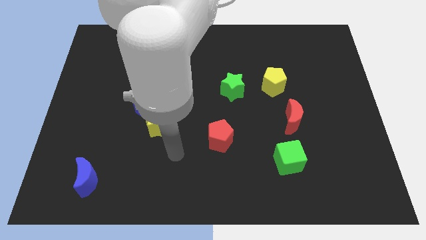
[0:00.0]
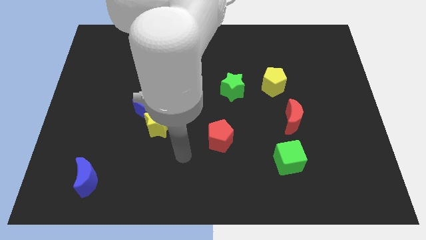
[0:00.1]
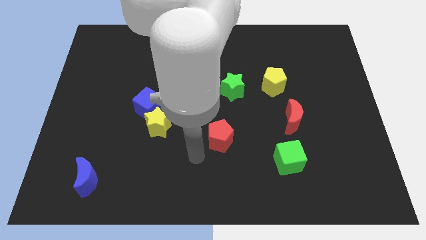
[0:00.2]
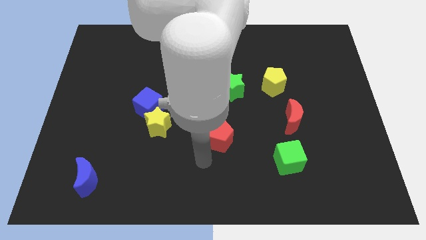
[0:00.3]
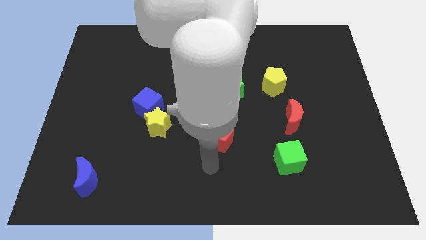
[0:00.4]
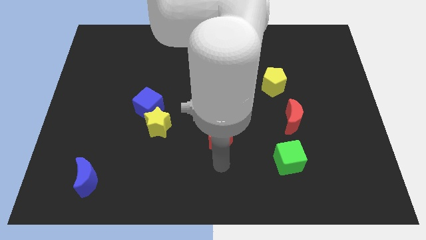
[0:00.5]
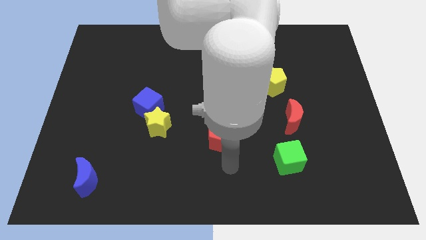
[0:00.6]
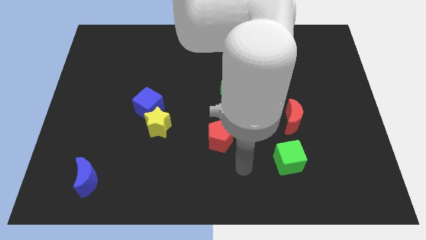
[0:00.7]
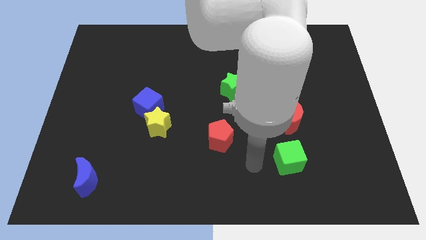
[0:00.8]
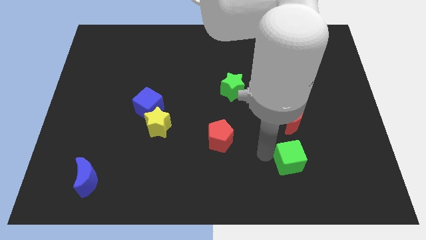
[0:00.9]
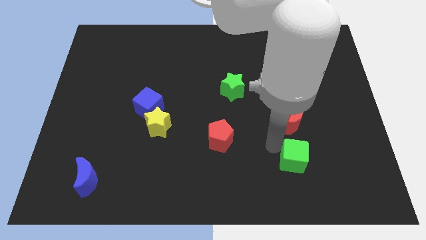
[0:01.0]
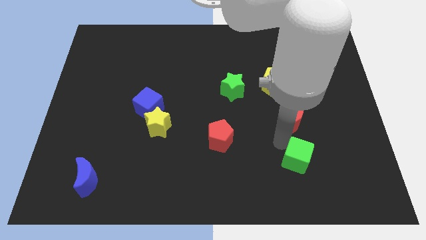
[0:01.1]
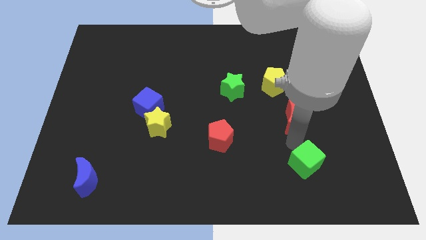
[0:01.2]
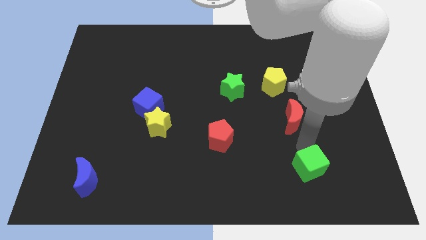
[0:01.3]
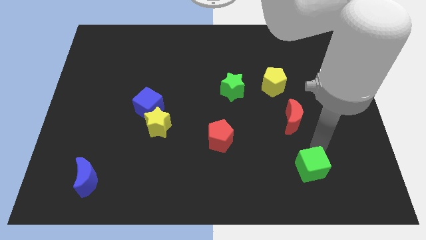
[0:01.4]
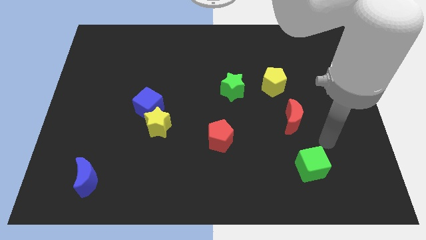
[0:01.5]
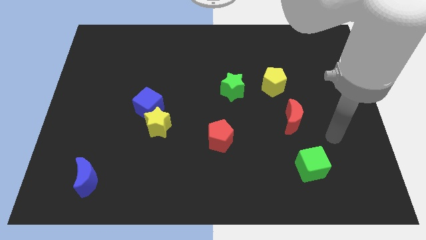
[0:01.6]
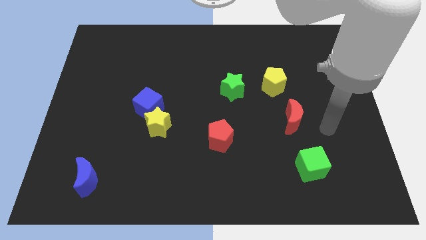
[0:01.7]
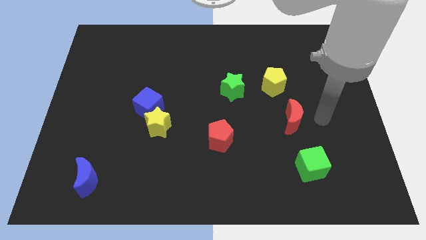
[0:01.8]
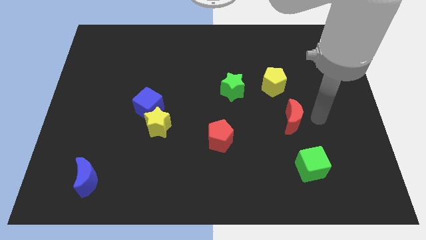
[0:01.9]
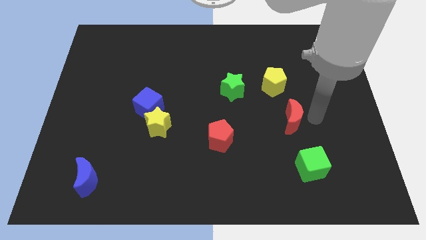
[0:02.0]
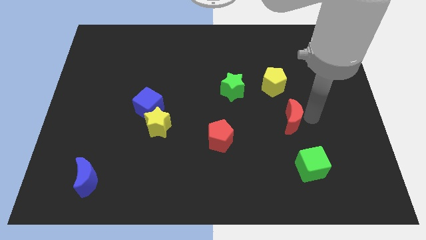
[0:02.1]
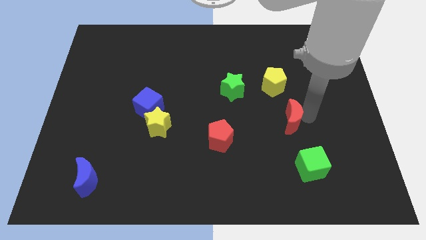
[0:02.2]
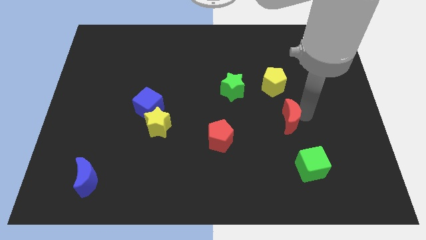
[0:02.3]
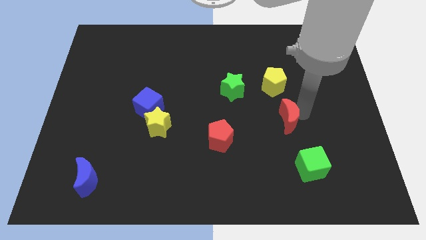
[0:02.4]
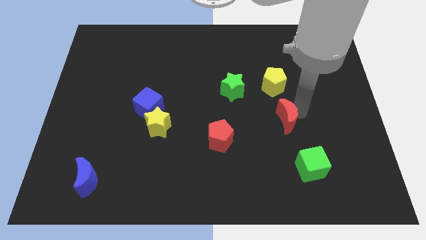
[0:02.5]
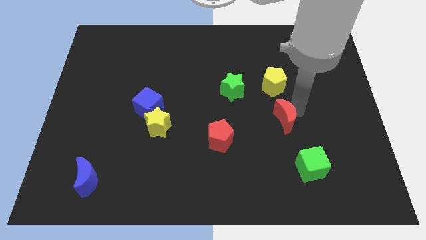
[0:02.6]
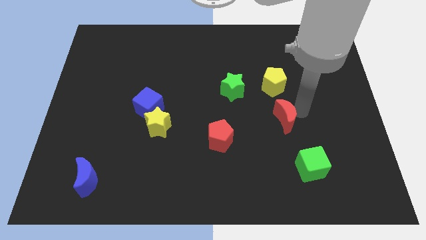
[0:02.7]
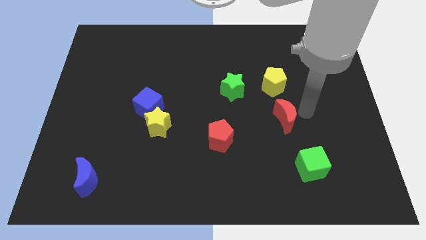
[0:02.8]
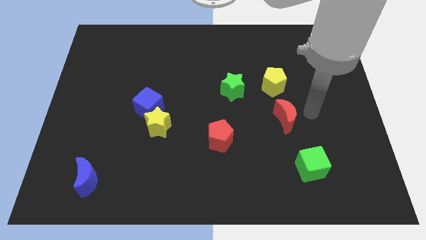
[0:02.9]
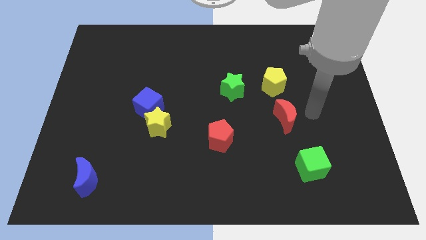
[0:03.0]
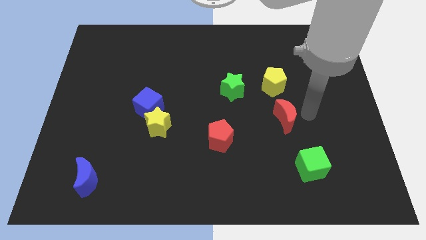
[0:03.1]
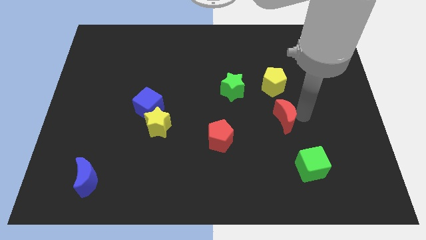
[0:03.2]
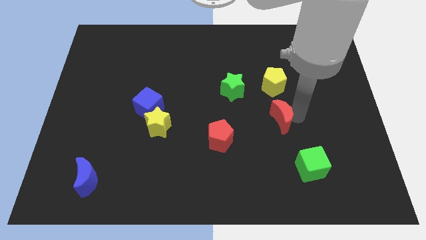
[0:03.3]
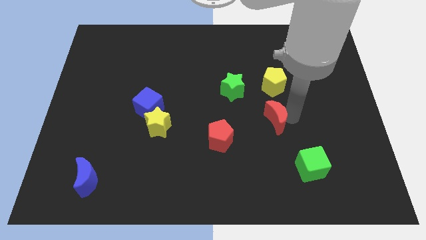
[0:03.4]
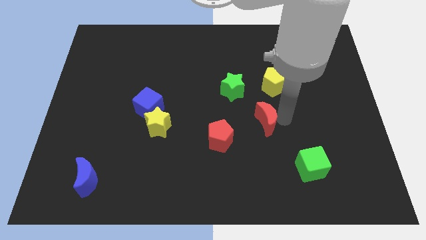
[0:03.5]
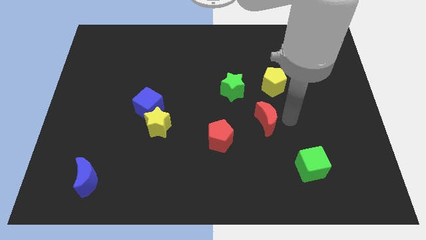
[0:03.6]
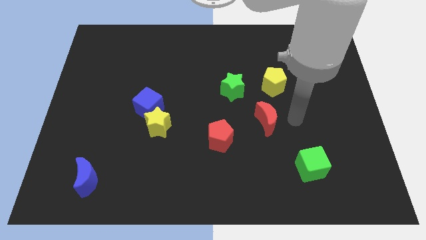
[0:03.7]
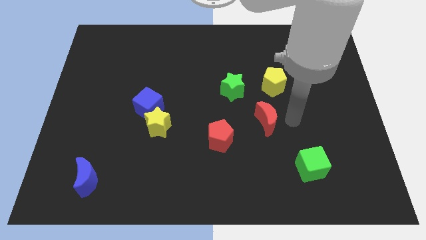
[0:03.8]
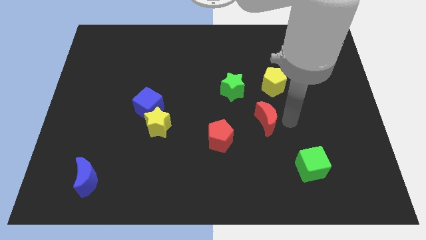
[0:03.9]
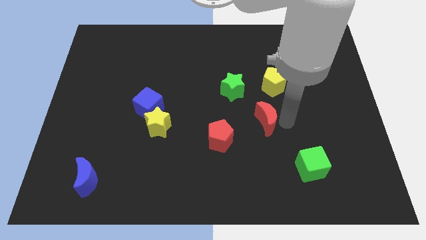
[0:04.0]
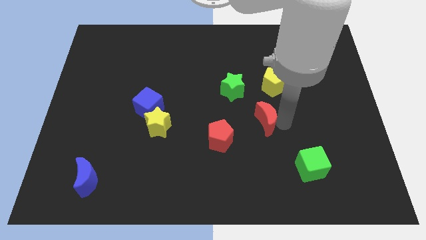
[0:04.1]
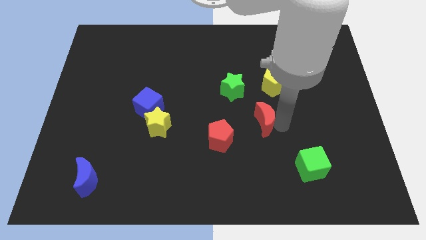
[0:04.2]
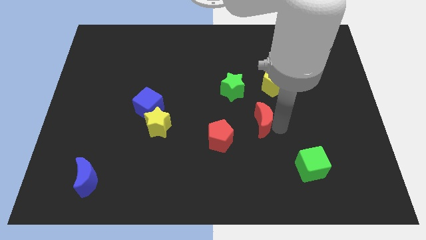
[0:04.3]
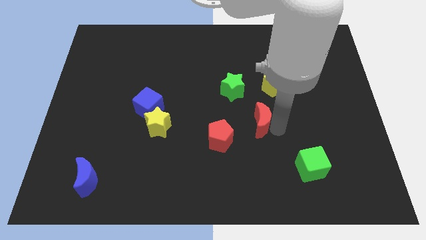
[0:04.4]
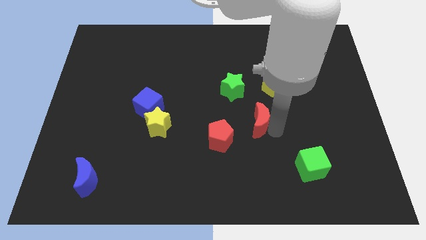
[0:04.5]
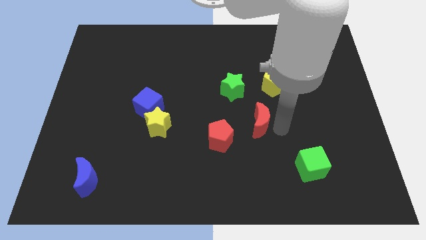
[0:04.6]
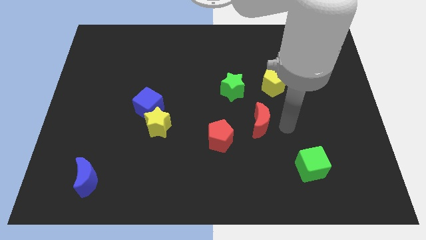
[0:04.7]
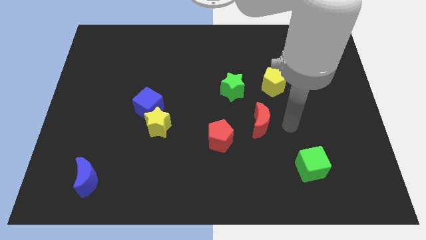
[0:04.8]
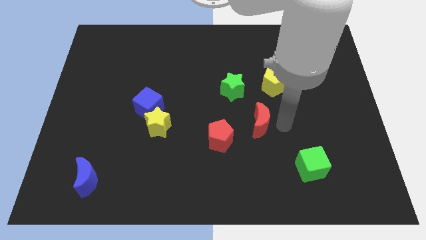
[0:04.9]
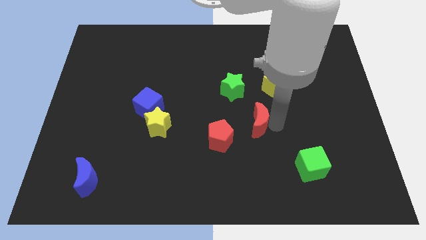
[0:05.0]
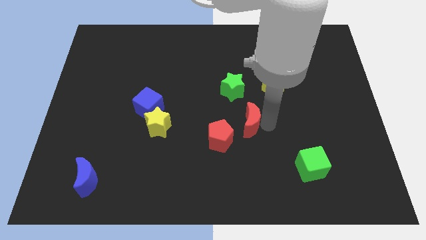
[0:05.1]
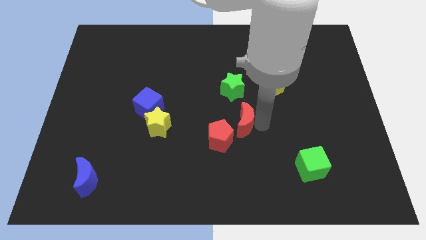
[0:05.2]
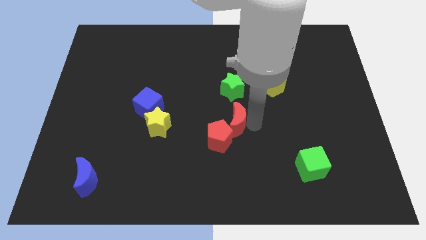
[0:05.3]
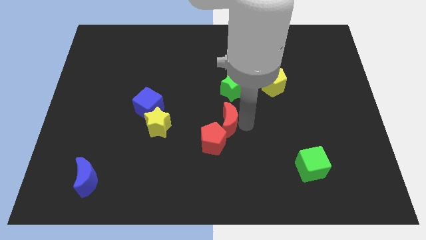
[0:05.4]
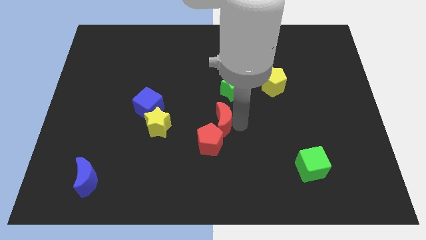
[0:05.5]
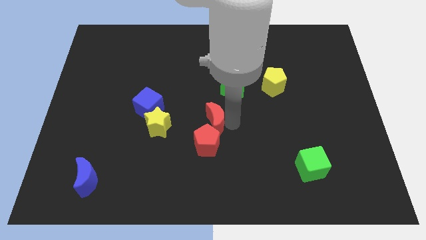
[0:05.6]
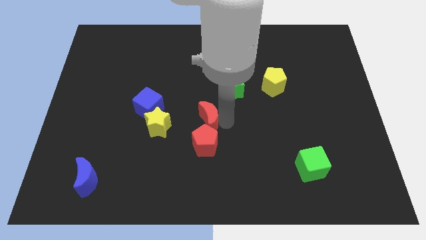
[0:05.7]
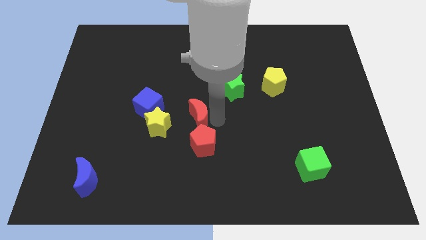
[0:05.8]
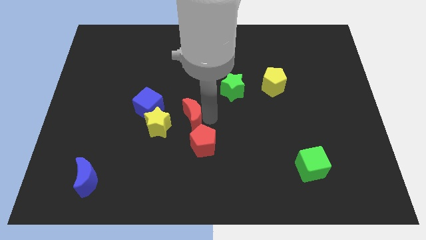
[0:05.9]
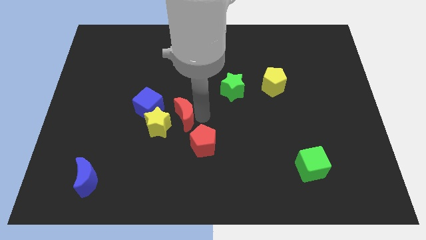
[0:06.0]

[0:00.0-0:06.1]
slide the red moon diagonally down and to the right of the blue cube

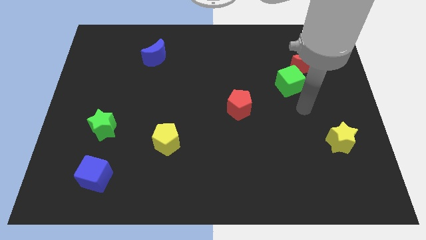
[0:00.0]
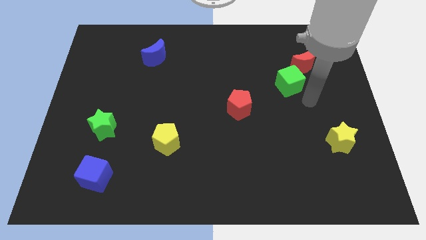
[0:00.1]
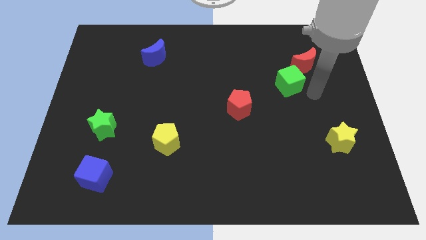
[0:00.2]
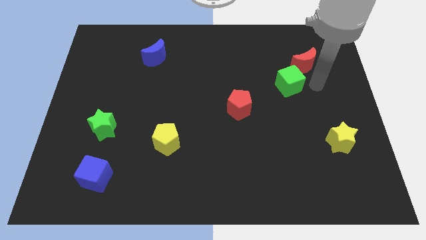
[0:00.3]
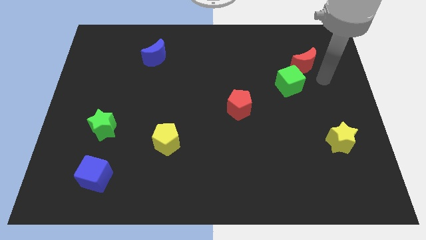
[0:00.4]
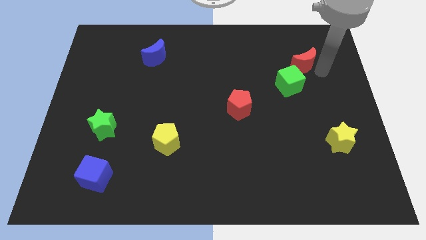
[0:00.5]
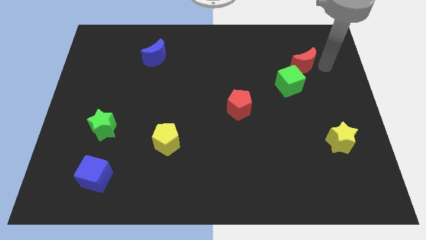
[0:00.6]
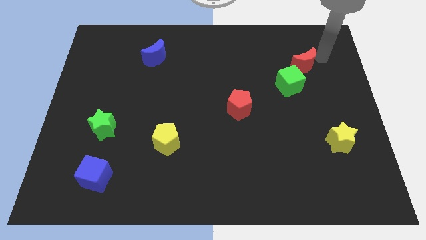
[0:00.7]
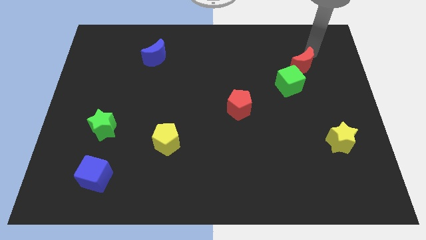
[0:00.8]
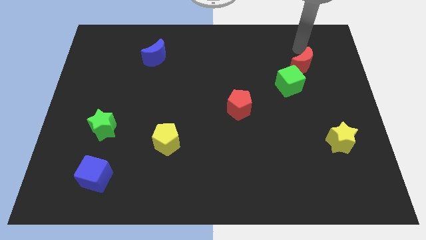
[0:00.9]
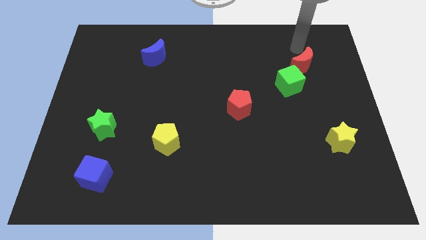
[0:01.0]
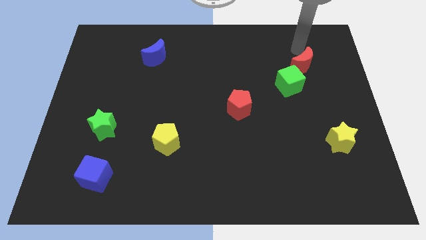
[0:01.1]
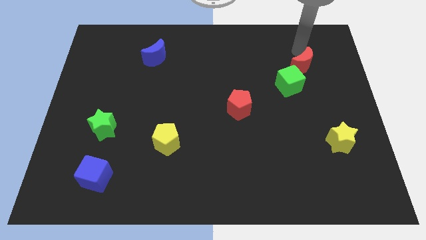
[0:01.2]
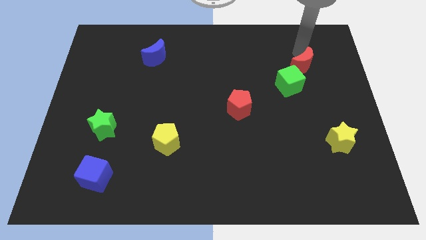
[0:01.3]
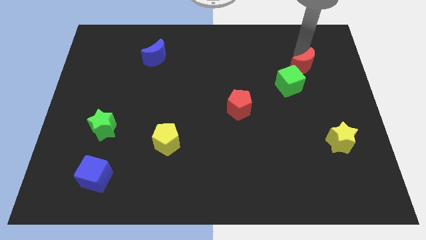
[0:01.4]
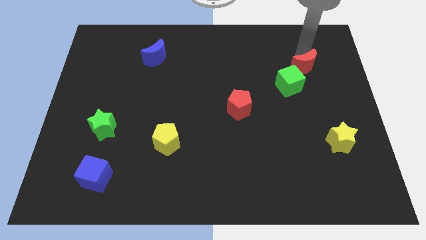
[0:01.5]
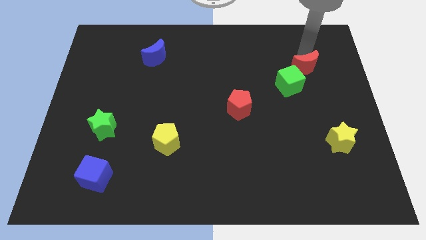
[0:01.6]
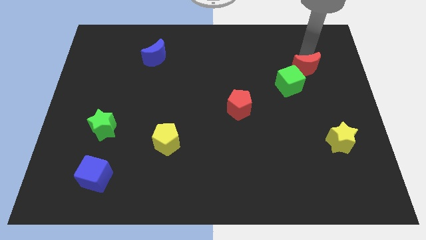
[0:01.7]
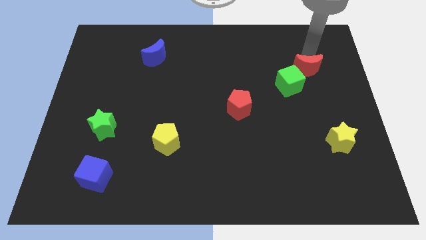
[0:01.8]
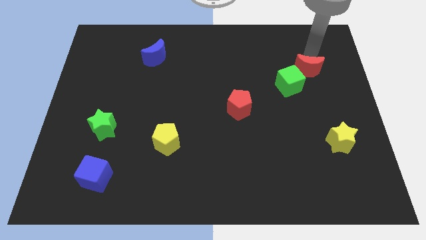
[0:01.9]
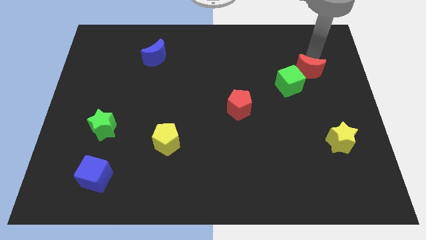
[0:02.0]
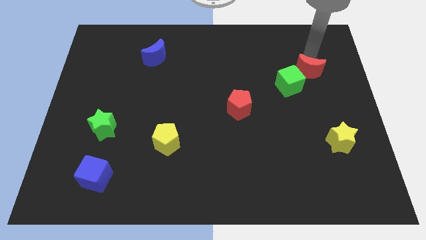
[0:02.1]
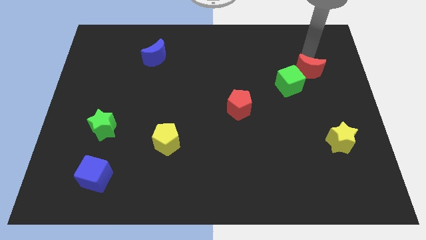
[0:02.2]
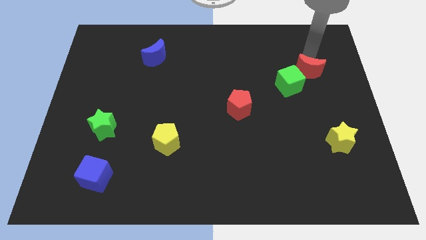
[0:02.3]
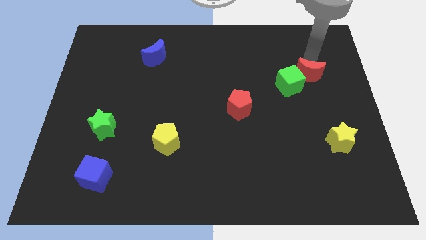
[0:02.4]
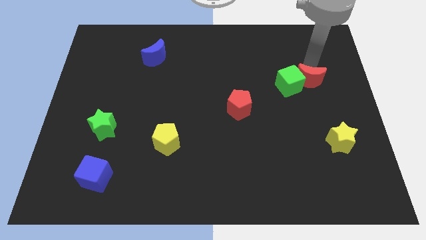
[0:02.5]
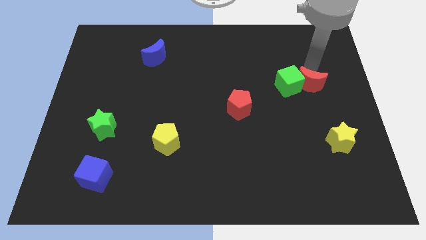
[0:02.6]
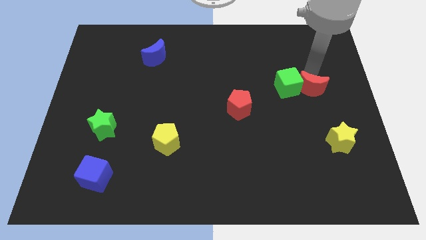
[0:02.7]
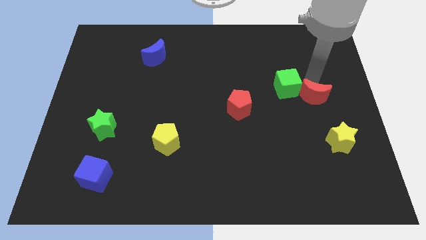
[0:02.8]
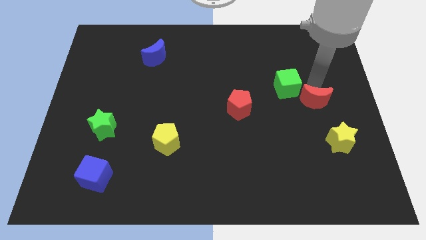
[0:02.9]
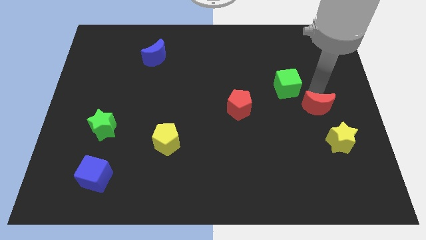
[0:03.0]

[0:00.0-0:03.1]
put the red moon to the top left side of the yellow star
